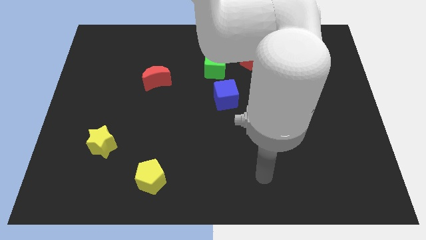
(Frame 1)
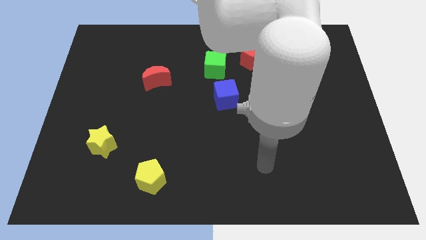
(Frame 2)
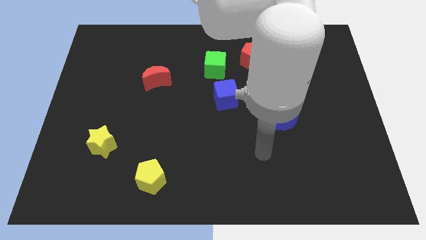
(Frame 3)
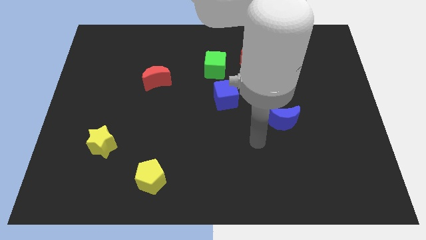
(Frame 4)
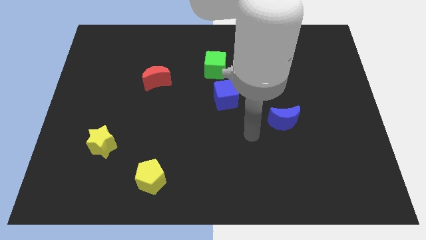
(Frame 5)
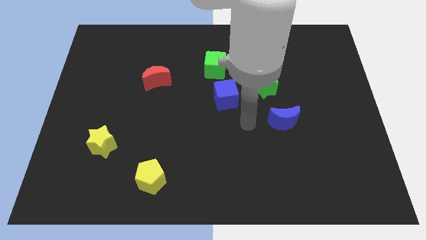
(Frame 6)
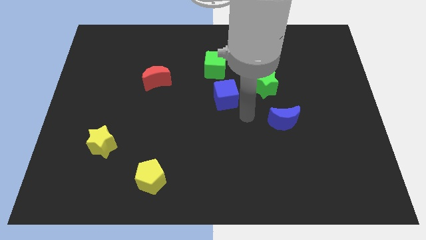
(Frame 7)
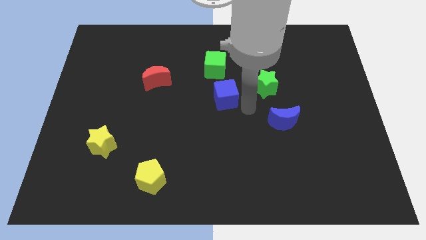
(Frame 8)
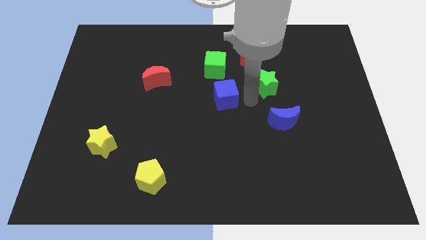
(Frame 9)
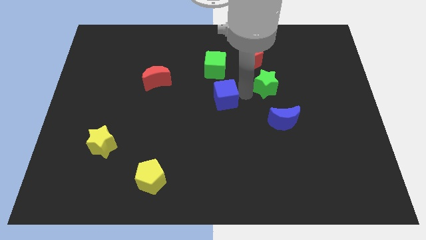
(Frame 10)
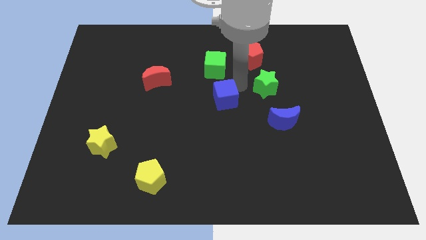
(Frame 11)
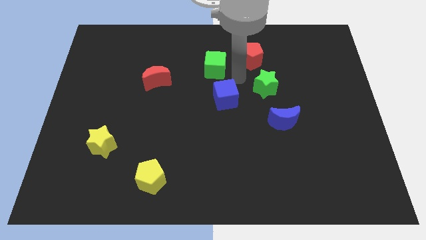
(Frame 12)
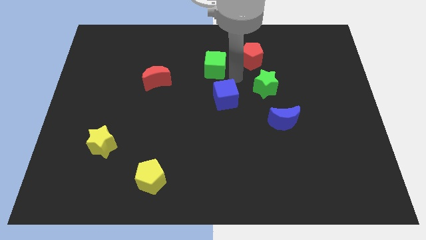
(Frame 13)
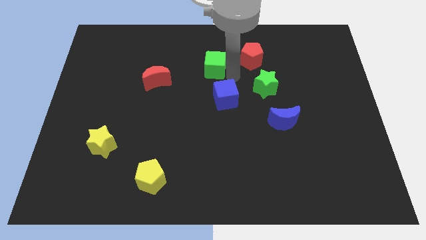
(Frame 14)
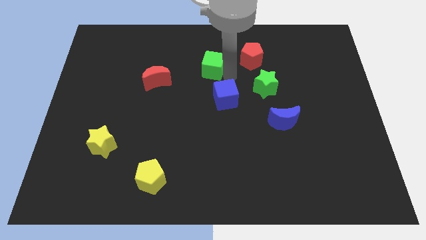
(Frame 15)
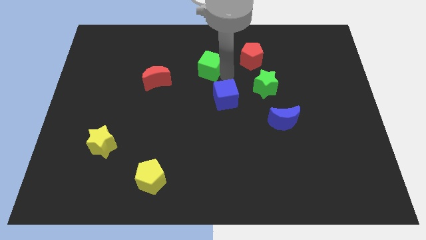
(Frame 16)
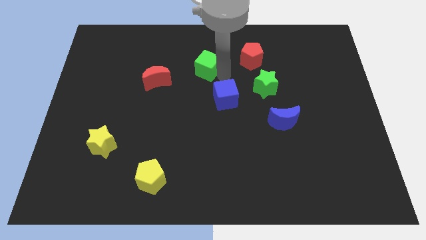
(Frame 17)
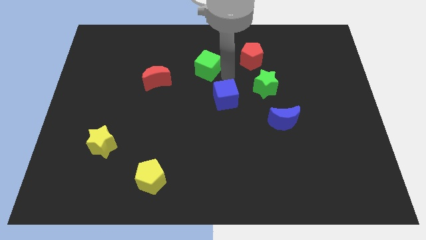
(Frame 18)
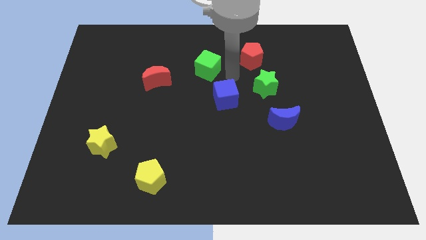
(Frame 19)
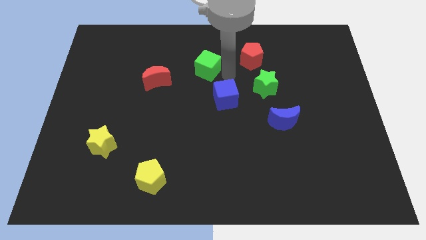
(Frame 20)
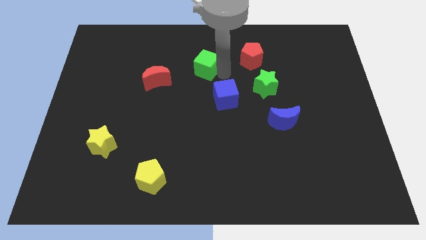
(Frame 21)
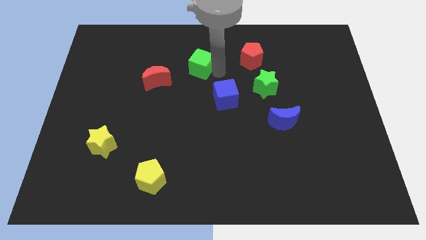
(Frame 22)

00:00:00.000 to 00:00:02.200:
pull the green cube apart from the red pentagon and blue cube

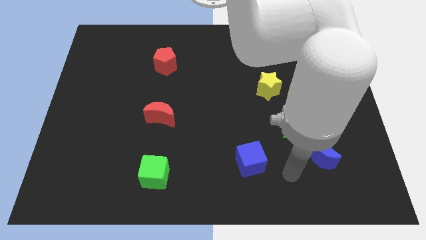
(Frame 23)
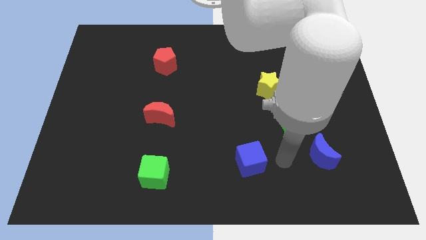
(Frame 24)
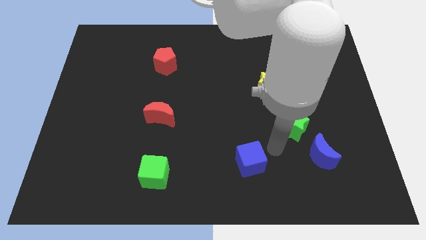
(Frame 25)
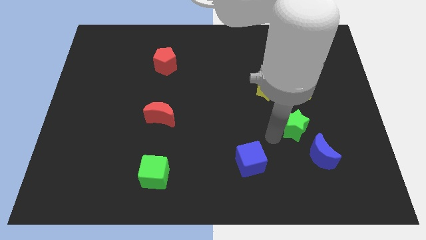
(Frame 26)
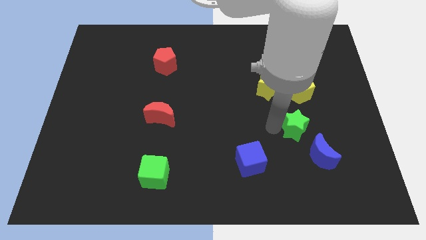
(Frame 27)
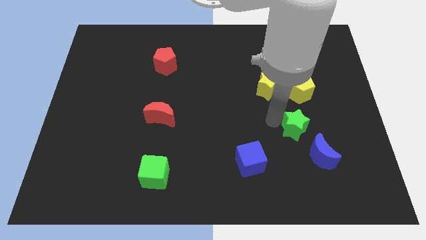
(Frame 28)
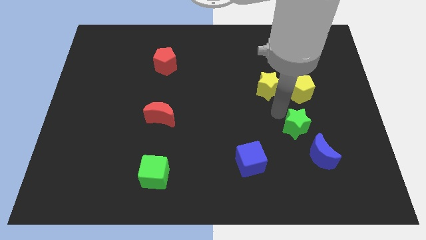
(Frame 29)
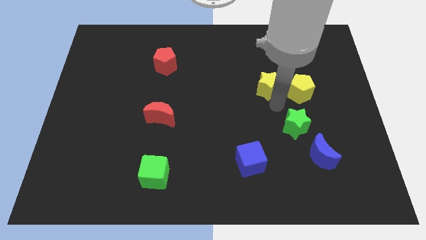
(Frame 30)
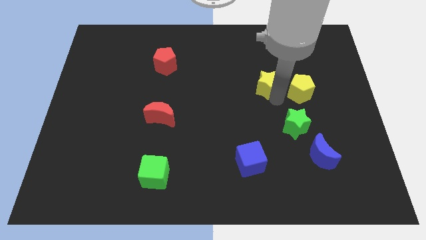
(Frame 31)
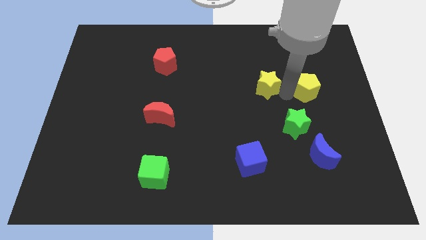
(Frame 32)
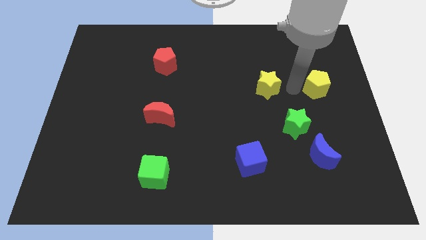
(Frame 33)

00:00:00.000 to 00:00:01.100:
pull the yellow star apart from the yellow pentagon

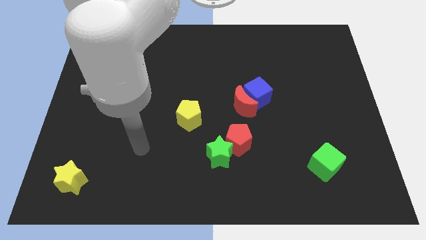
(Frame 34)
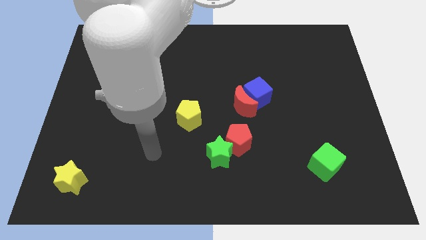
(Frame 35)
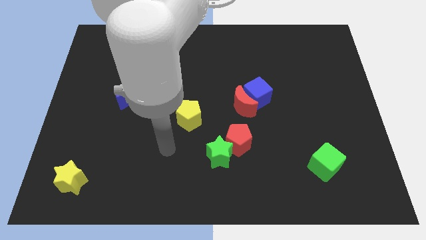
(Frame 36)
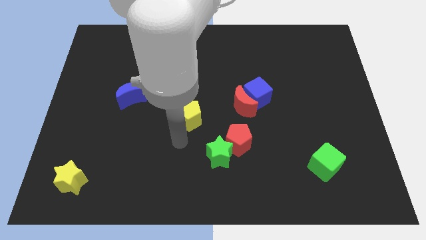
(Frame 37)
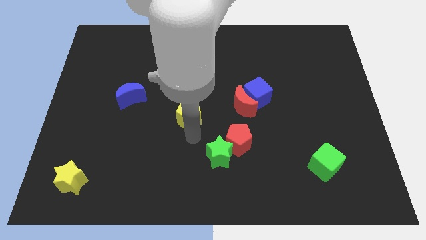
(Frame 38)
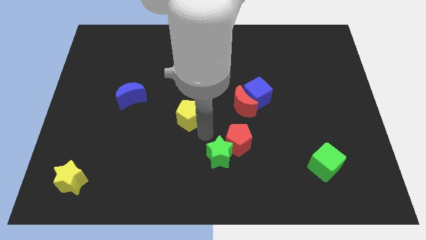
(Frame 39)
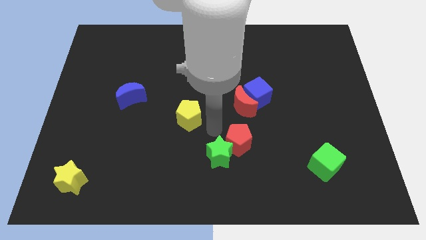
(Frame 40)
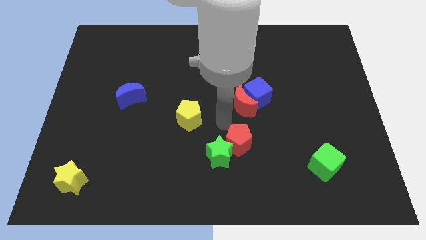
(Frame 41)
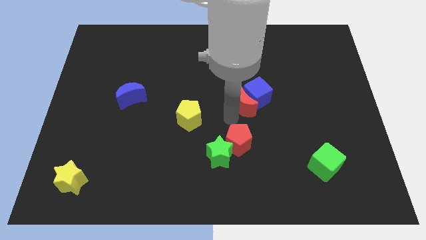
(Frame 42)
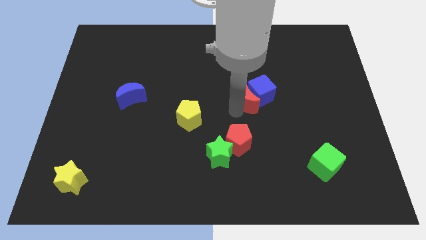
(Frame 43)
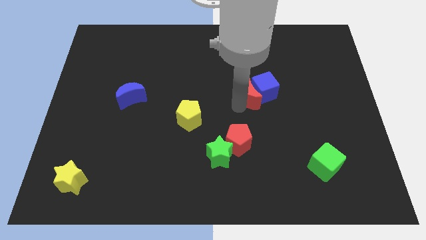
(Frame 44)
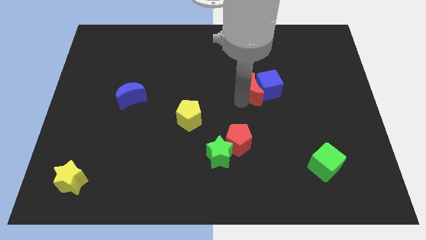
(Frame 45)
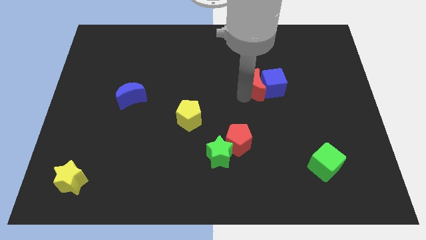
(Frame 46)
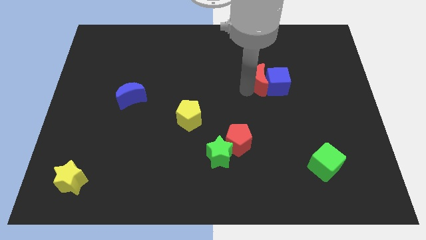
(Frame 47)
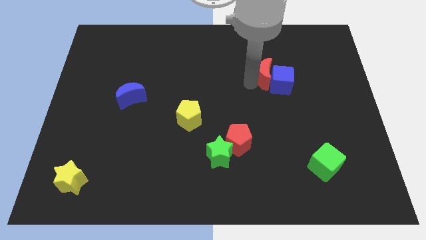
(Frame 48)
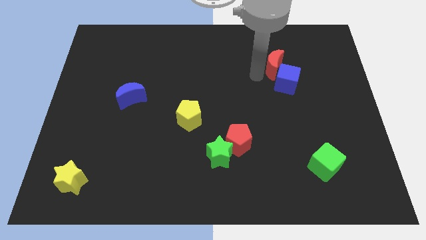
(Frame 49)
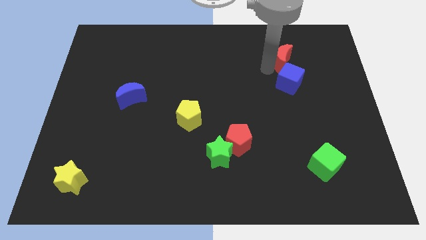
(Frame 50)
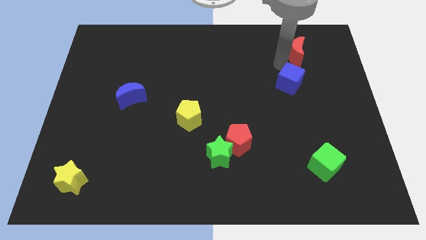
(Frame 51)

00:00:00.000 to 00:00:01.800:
pull the blue cube apart from the red moon

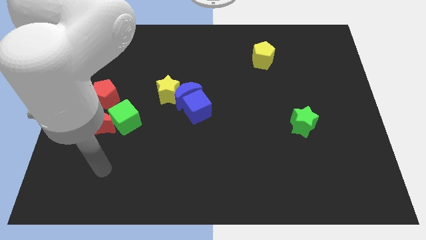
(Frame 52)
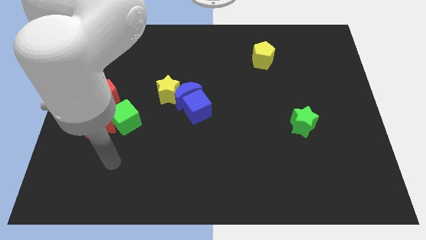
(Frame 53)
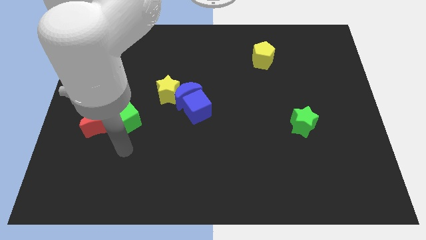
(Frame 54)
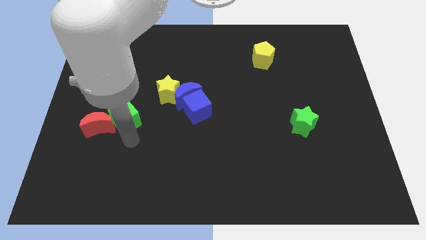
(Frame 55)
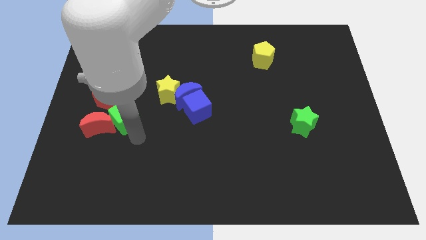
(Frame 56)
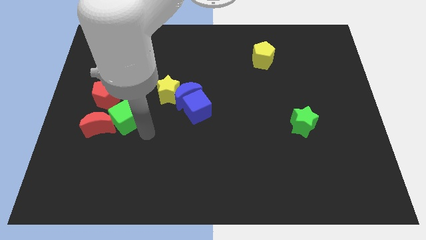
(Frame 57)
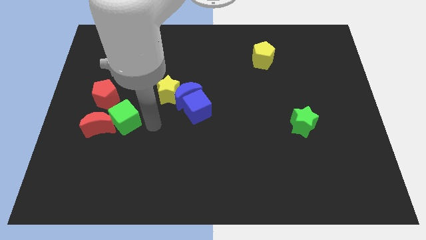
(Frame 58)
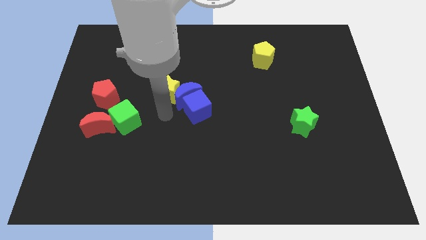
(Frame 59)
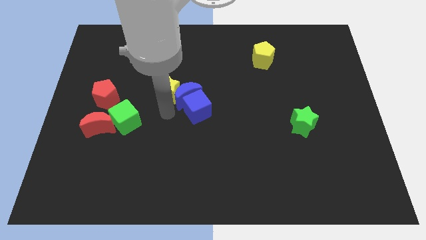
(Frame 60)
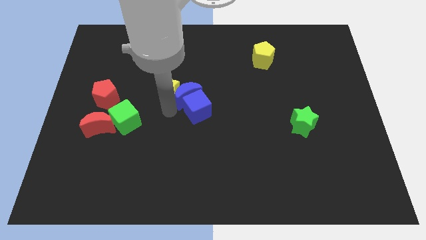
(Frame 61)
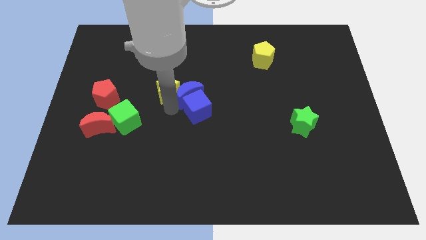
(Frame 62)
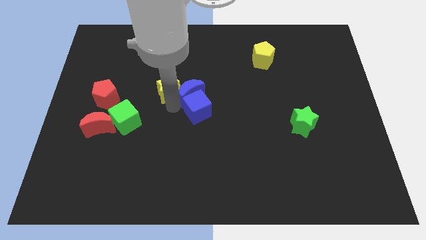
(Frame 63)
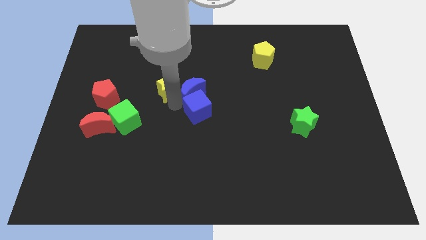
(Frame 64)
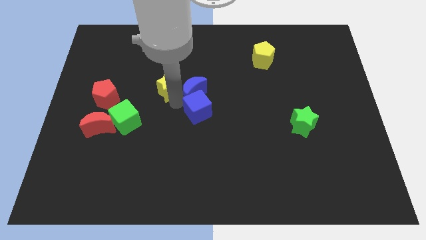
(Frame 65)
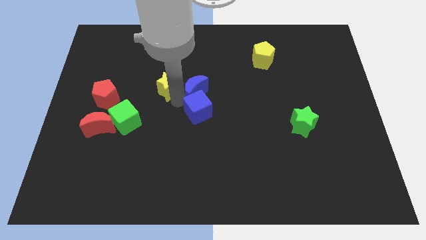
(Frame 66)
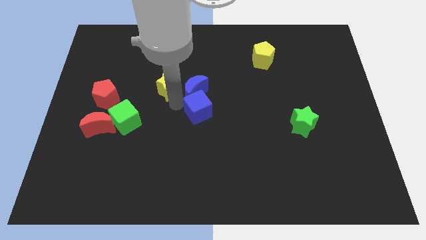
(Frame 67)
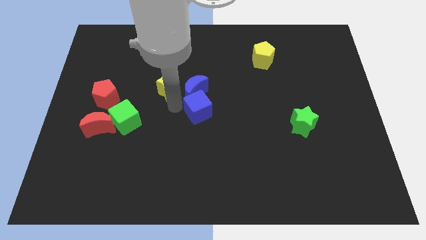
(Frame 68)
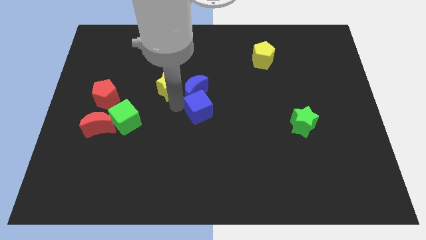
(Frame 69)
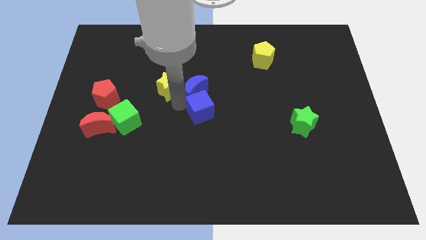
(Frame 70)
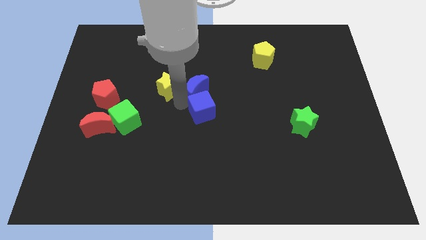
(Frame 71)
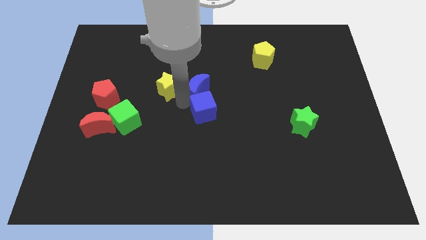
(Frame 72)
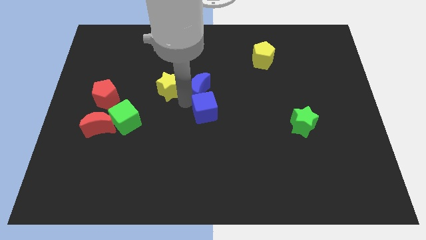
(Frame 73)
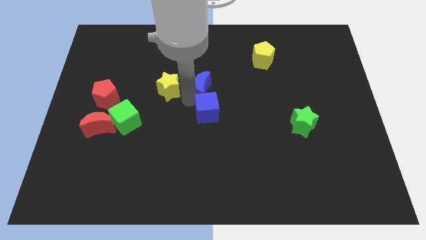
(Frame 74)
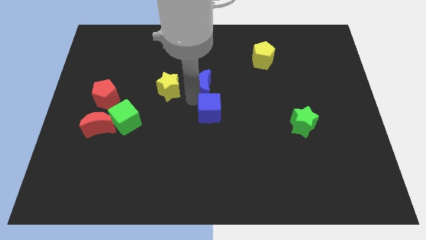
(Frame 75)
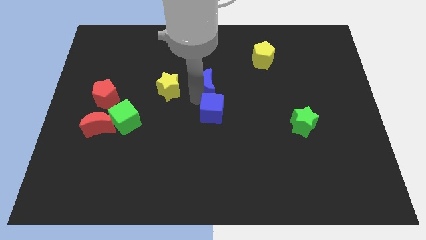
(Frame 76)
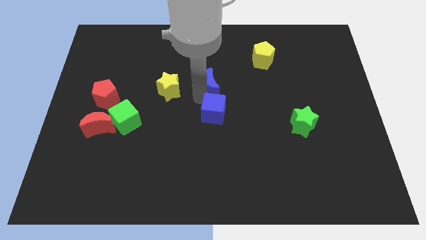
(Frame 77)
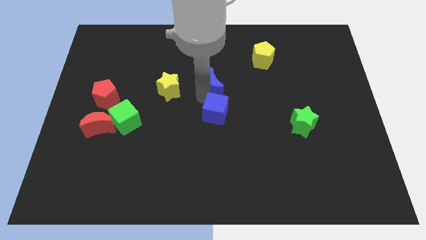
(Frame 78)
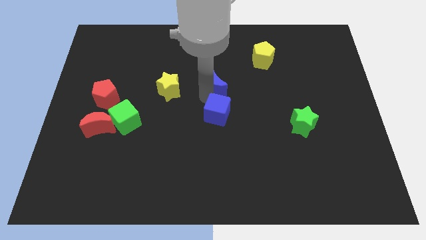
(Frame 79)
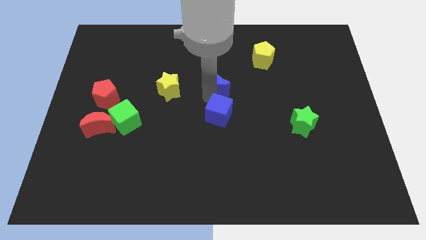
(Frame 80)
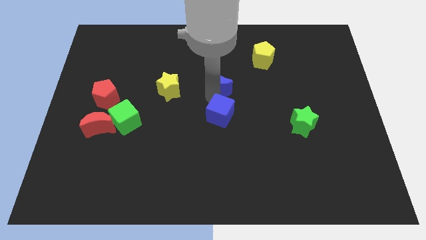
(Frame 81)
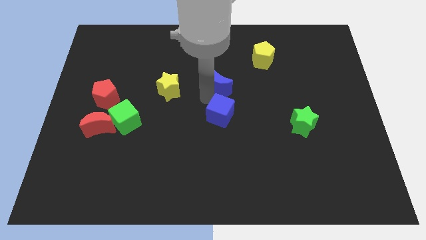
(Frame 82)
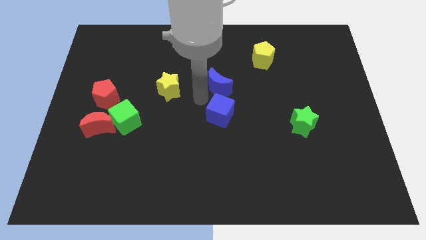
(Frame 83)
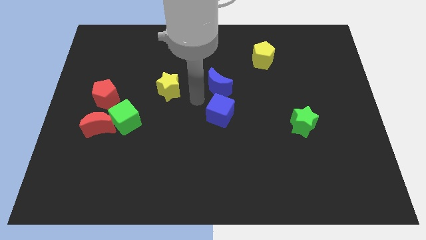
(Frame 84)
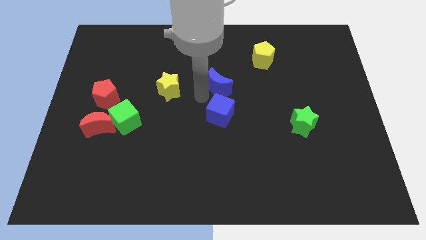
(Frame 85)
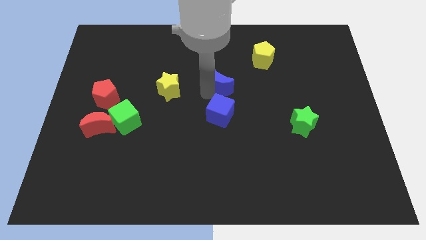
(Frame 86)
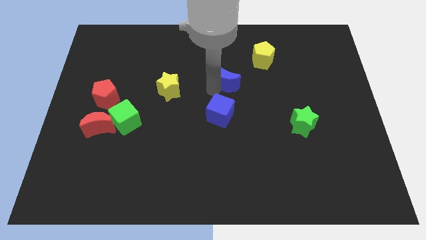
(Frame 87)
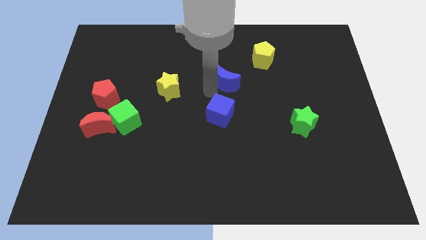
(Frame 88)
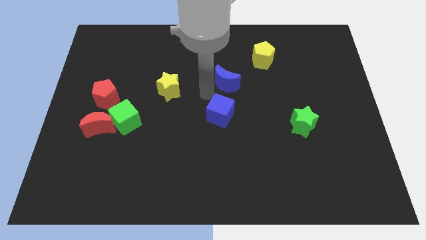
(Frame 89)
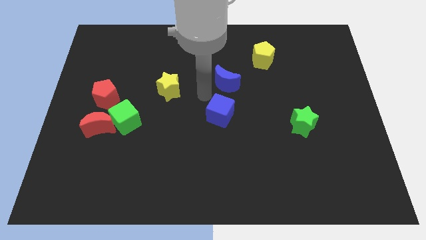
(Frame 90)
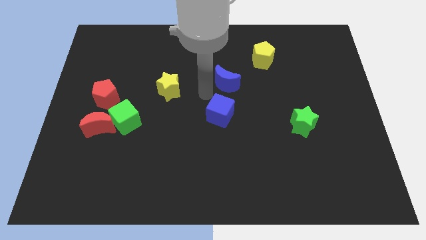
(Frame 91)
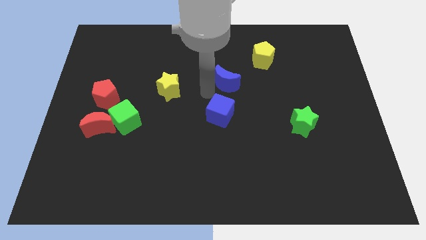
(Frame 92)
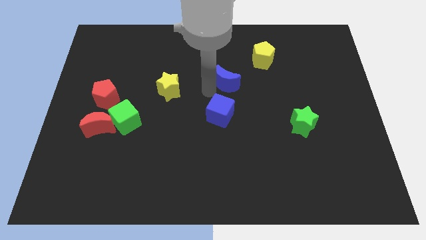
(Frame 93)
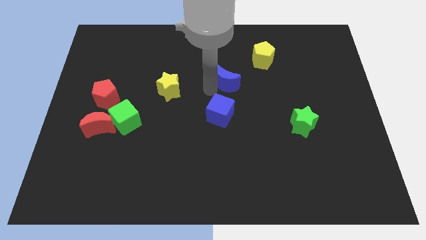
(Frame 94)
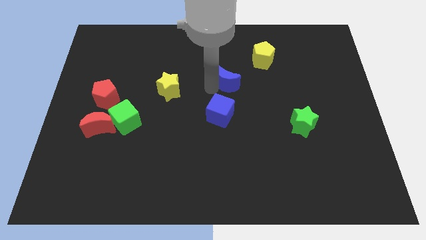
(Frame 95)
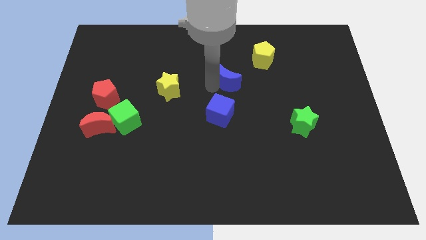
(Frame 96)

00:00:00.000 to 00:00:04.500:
move the blue moon away from the blue cube and yellow star
